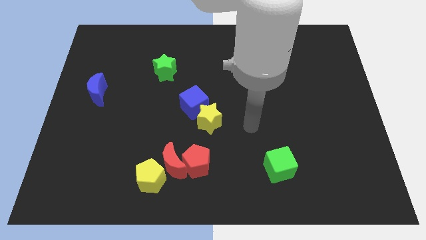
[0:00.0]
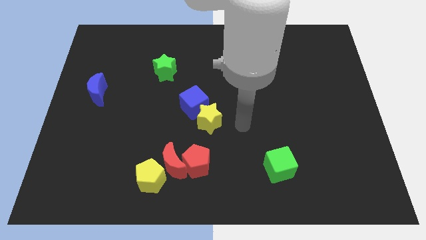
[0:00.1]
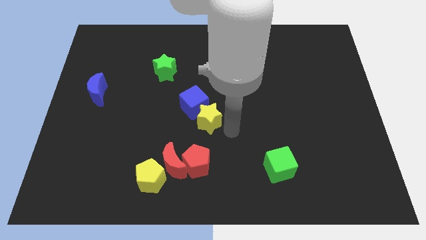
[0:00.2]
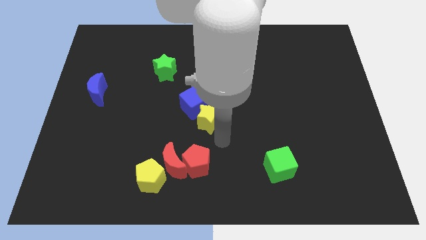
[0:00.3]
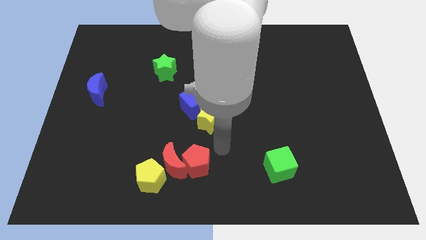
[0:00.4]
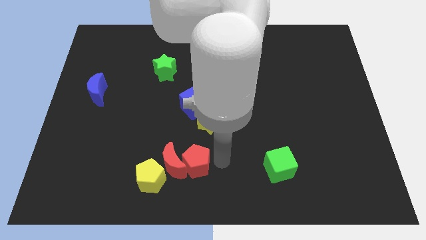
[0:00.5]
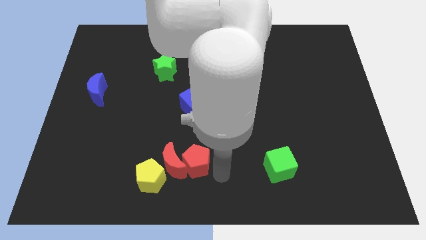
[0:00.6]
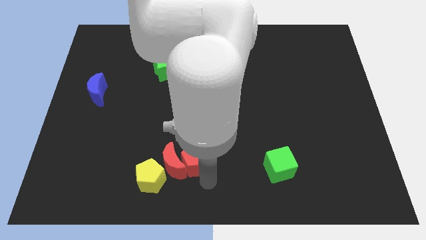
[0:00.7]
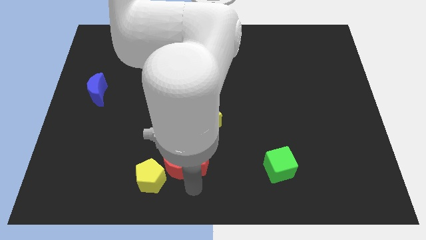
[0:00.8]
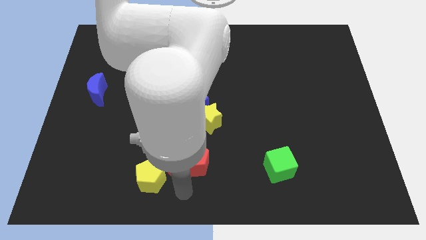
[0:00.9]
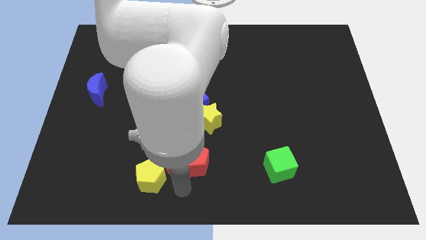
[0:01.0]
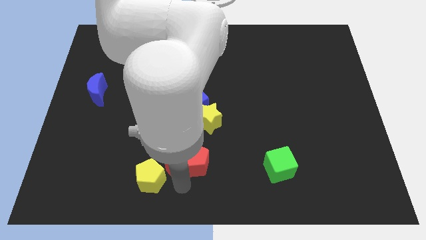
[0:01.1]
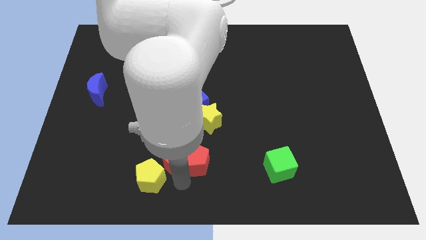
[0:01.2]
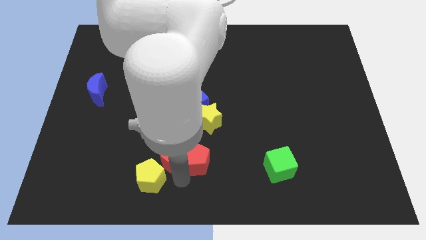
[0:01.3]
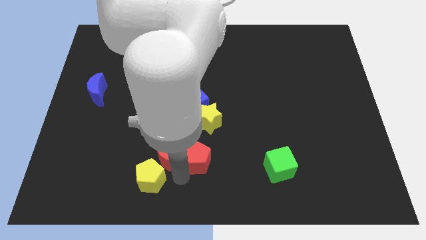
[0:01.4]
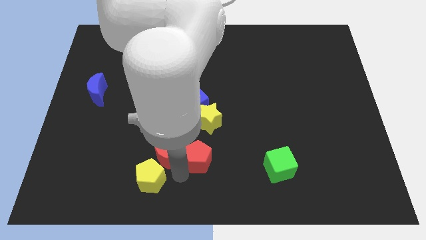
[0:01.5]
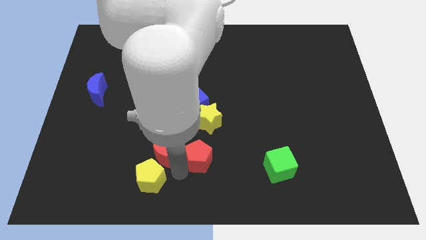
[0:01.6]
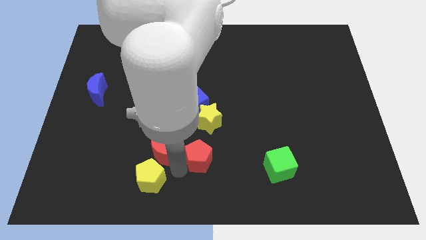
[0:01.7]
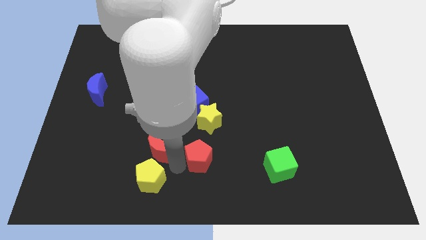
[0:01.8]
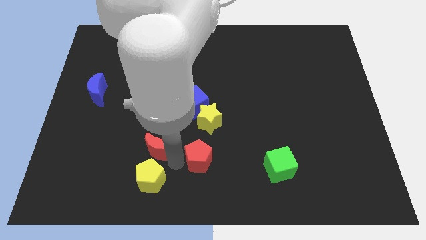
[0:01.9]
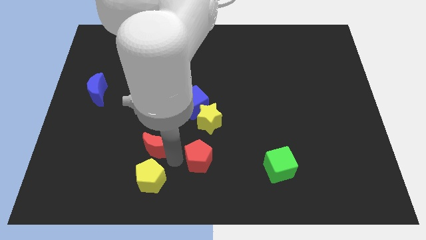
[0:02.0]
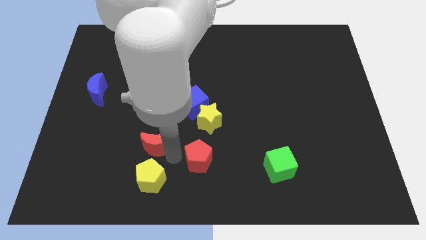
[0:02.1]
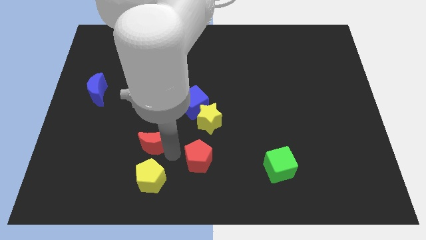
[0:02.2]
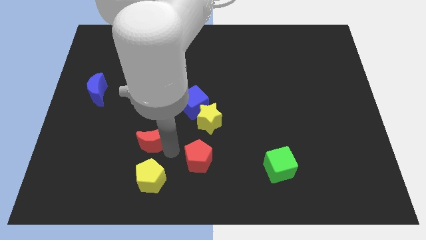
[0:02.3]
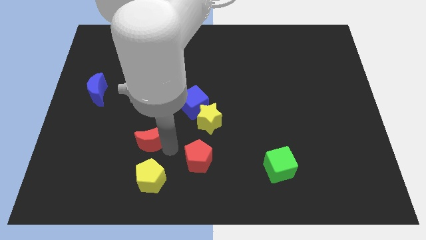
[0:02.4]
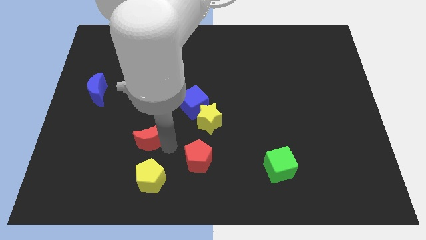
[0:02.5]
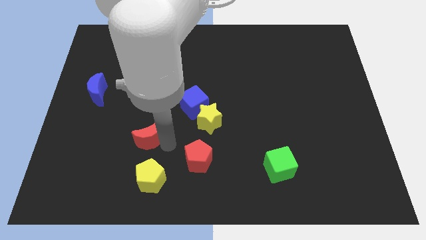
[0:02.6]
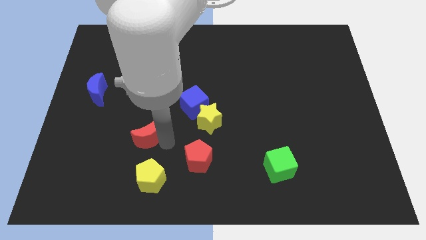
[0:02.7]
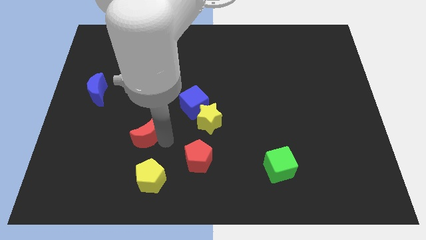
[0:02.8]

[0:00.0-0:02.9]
move the red moon away from the red pentagon and yellow pentagon

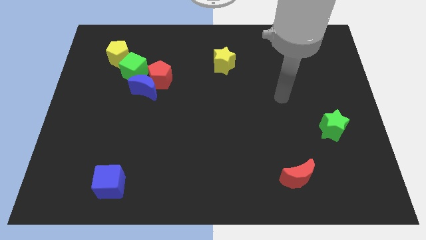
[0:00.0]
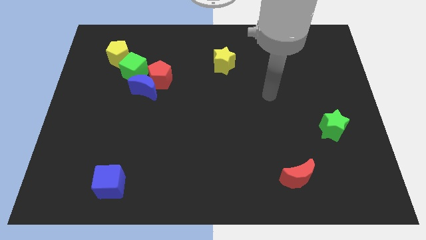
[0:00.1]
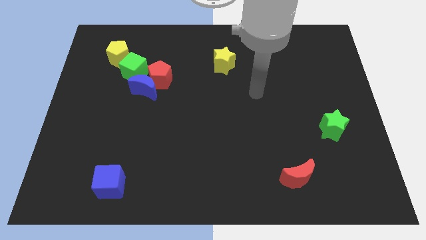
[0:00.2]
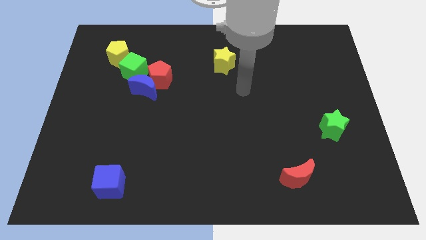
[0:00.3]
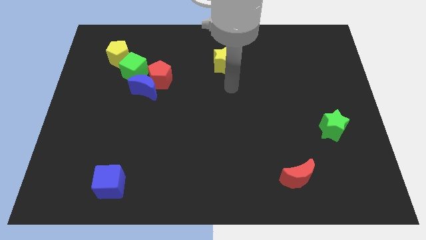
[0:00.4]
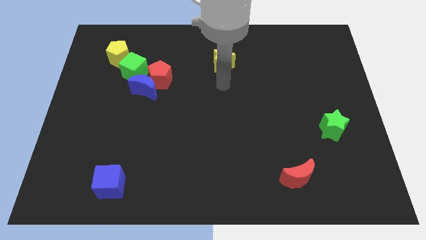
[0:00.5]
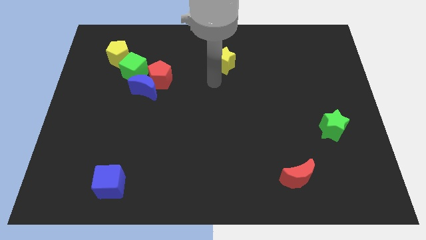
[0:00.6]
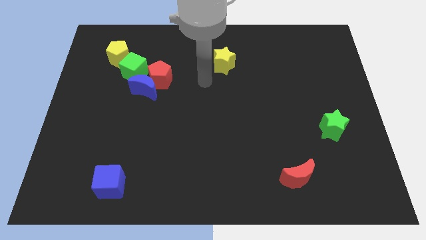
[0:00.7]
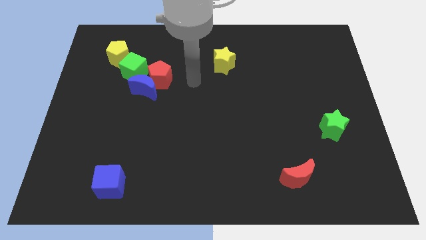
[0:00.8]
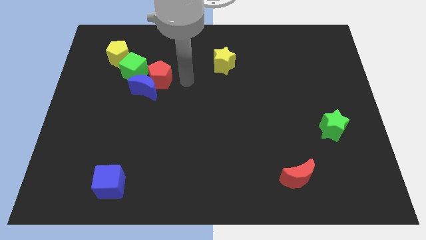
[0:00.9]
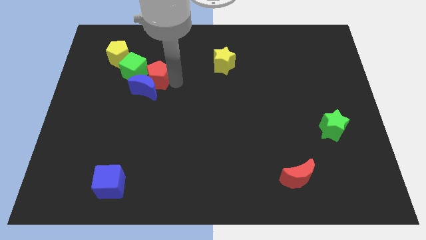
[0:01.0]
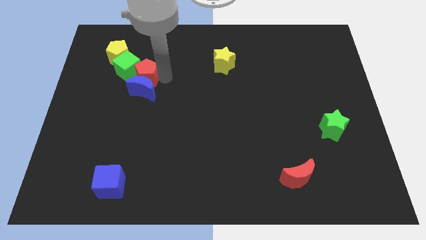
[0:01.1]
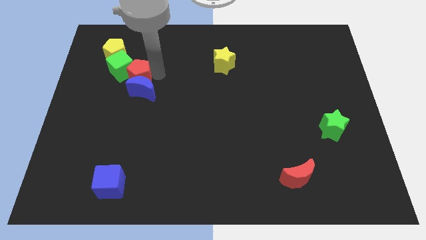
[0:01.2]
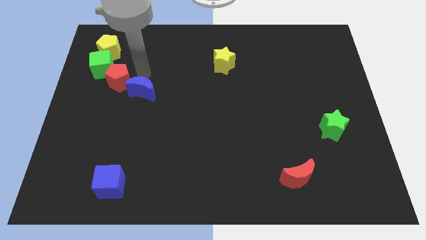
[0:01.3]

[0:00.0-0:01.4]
pull the blue moon apart from the red pentagon and green cube

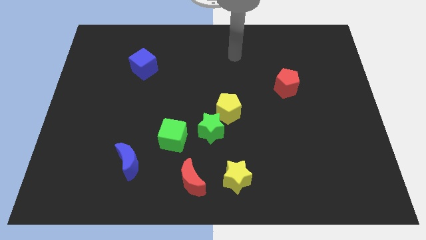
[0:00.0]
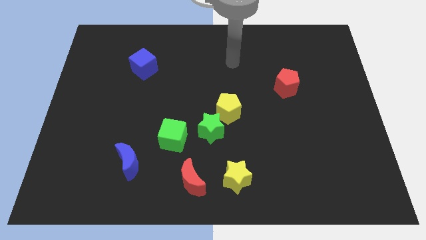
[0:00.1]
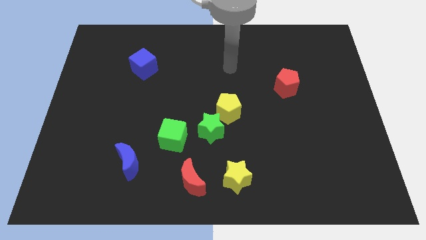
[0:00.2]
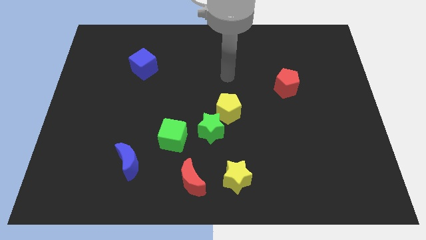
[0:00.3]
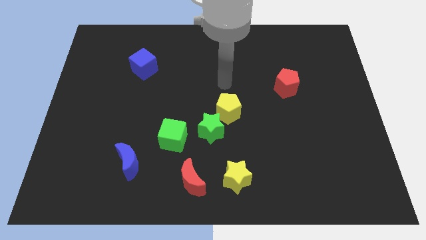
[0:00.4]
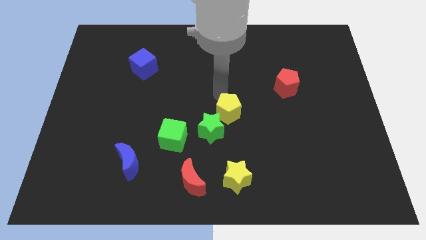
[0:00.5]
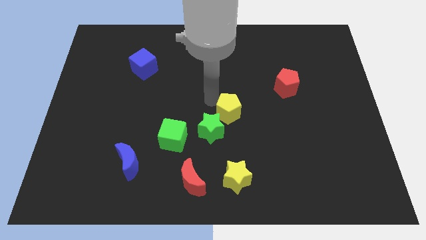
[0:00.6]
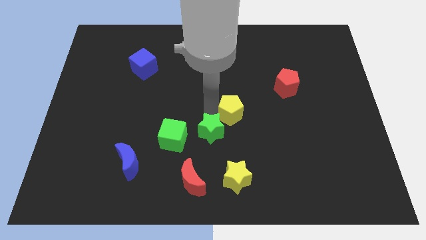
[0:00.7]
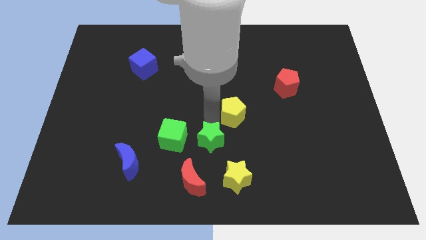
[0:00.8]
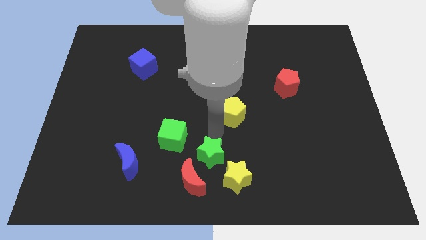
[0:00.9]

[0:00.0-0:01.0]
separate the yellow pentagon from the green star

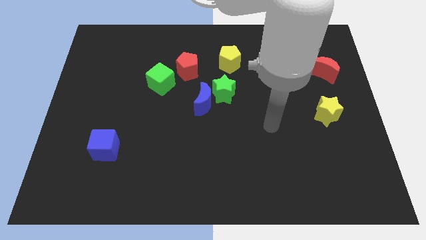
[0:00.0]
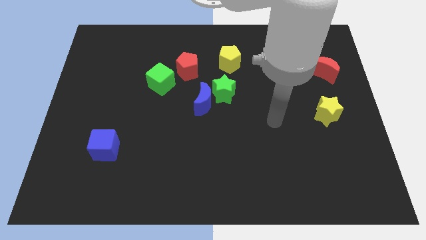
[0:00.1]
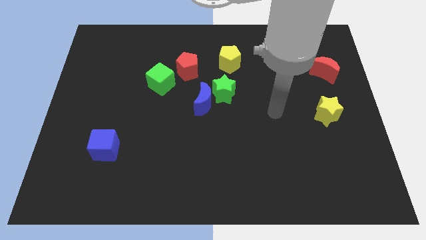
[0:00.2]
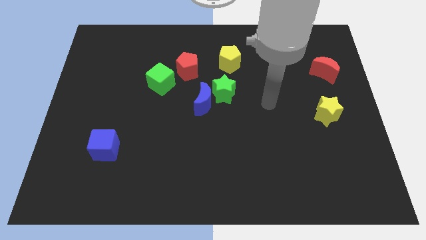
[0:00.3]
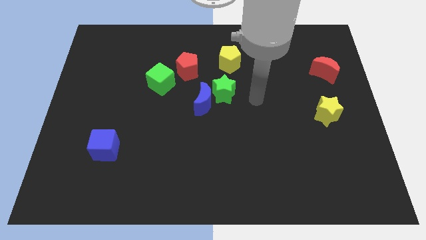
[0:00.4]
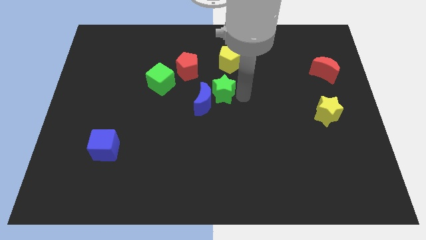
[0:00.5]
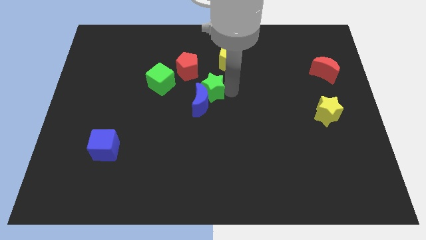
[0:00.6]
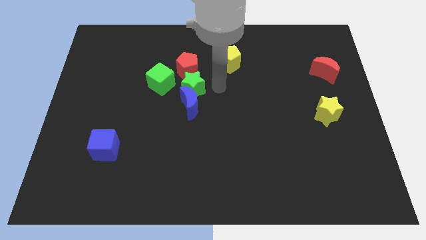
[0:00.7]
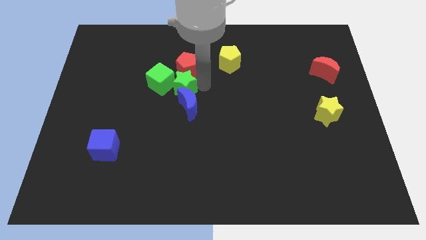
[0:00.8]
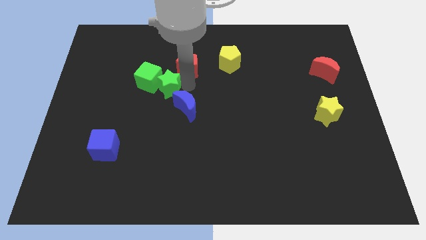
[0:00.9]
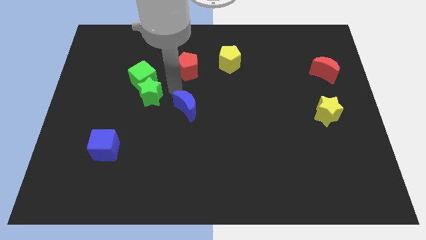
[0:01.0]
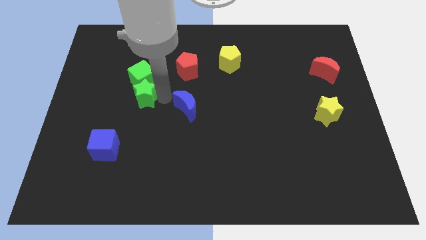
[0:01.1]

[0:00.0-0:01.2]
separate the blue moon from the green star

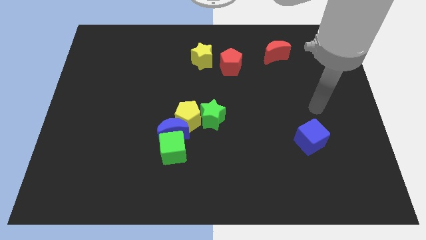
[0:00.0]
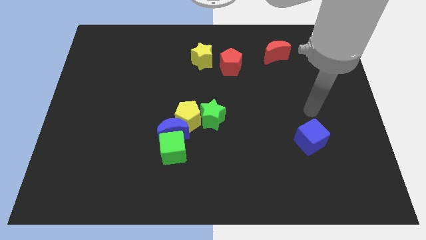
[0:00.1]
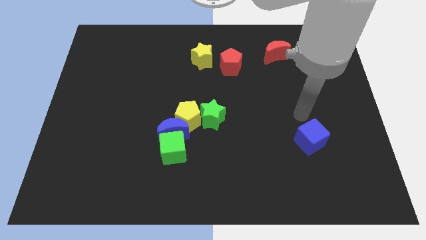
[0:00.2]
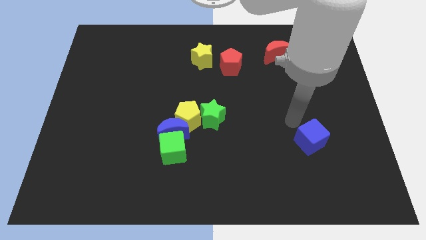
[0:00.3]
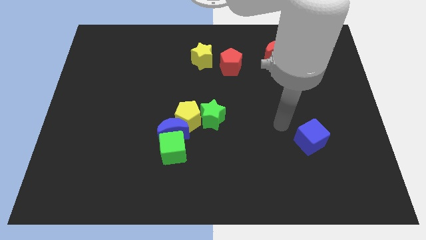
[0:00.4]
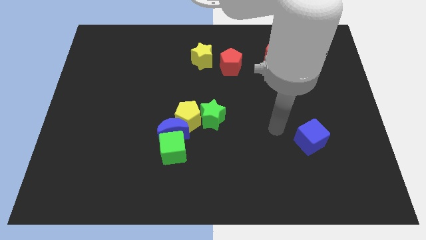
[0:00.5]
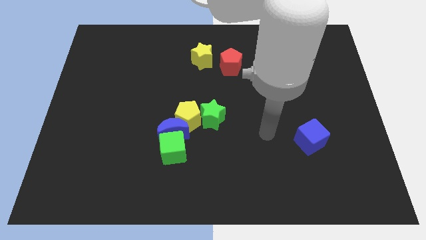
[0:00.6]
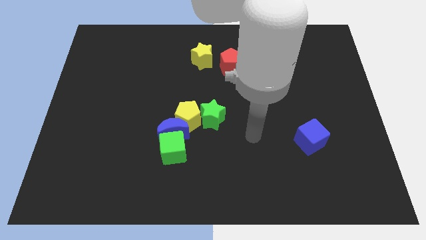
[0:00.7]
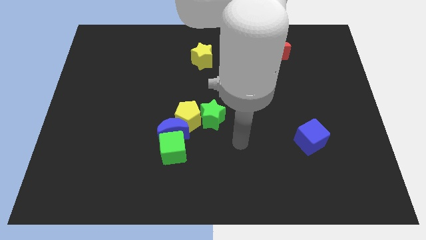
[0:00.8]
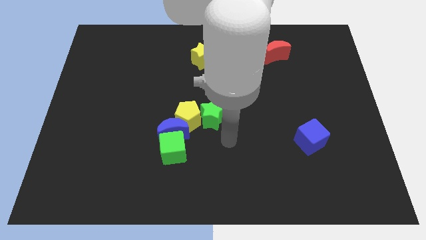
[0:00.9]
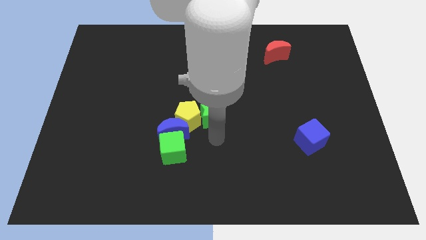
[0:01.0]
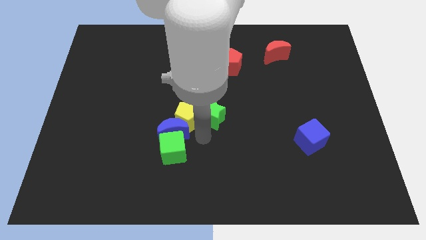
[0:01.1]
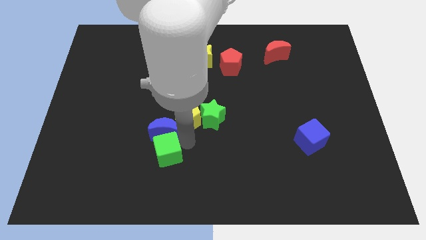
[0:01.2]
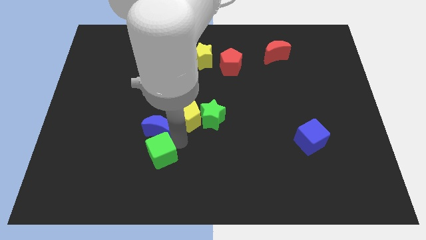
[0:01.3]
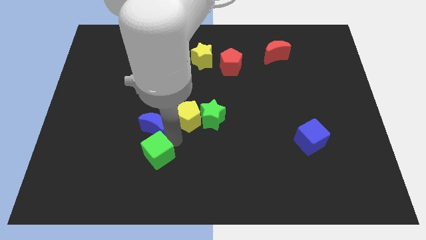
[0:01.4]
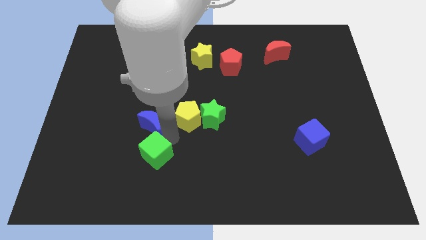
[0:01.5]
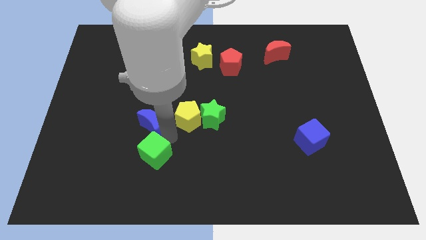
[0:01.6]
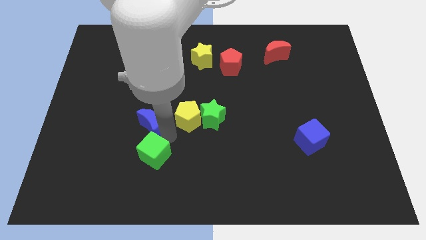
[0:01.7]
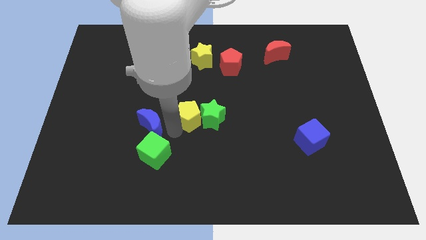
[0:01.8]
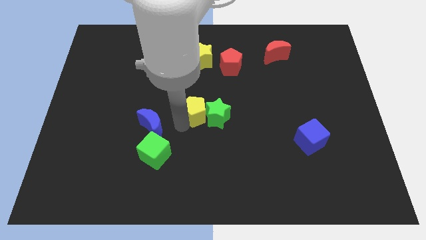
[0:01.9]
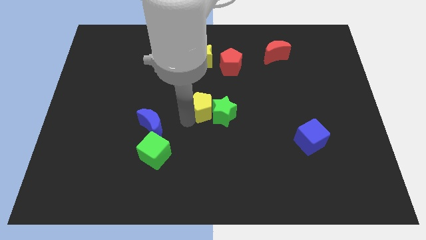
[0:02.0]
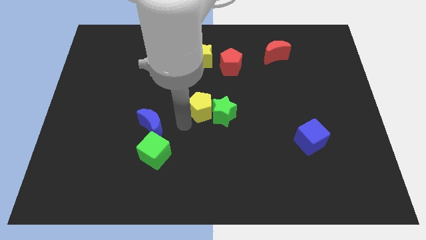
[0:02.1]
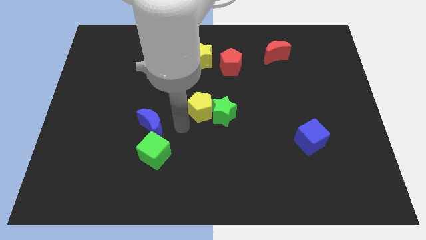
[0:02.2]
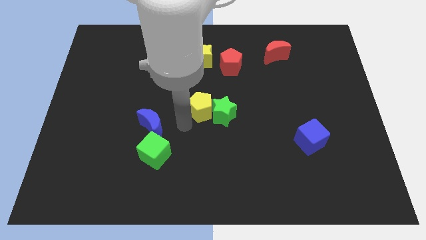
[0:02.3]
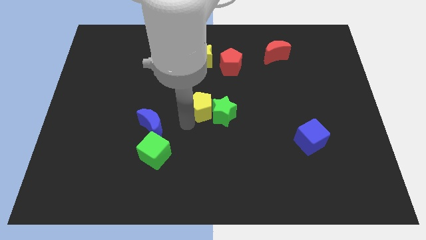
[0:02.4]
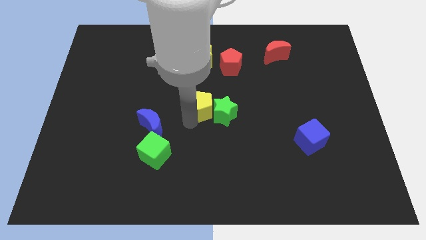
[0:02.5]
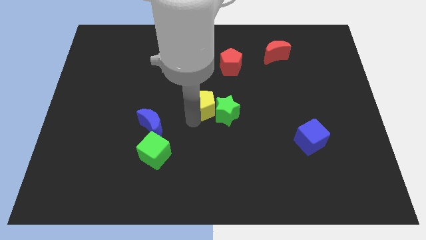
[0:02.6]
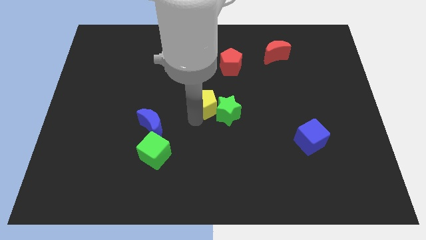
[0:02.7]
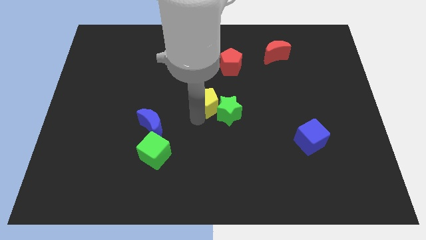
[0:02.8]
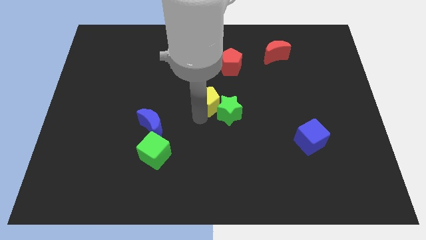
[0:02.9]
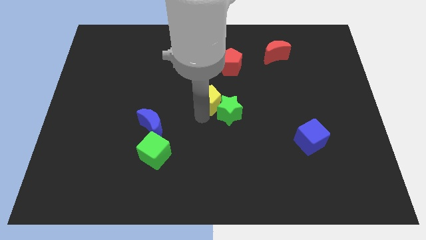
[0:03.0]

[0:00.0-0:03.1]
separate the yellow pentagon from the blue moon, green star, and green cube
